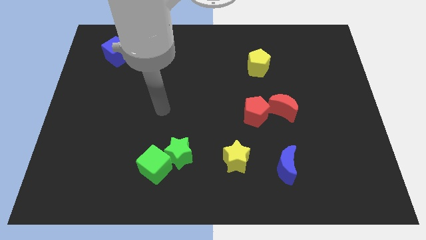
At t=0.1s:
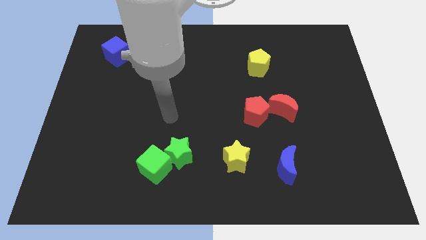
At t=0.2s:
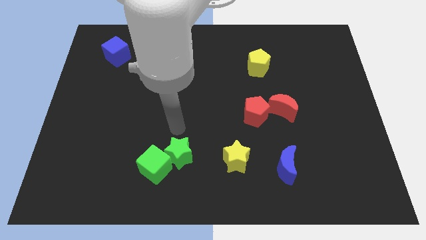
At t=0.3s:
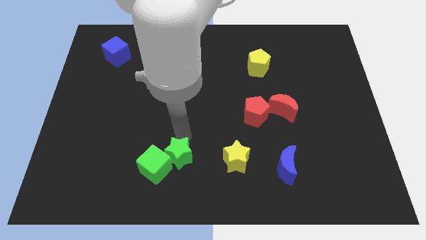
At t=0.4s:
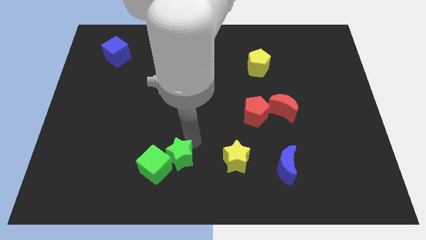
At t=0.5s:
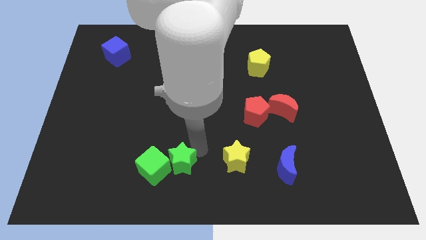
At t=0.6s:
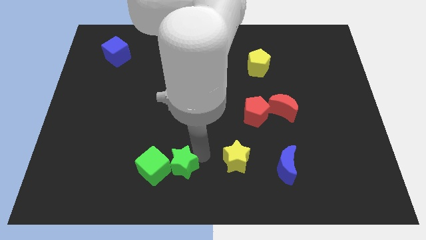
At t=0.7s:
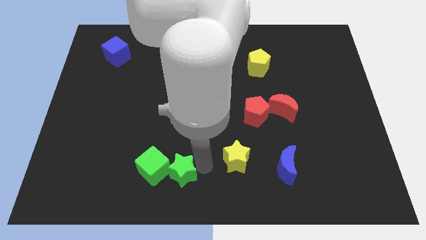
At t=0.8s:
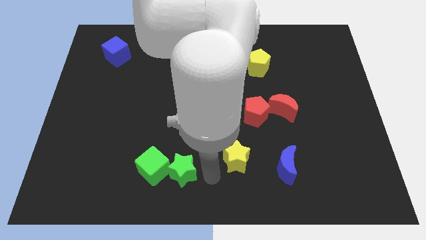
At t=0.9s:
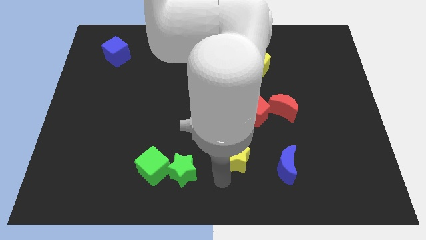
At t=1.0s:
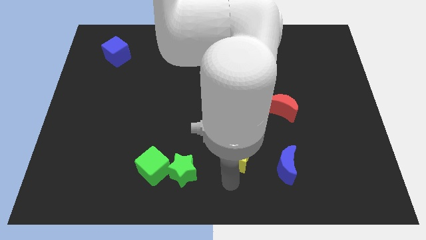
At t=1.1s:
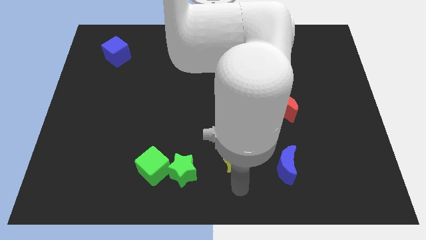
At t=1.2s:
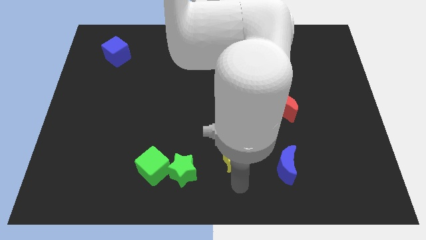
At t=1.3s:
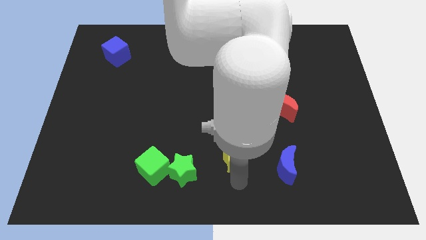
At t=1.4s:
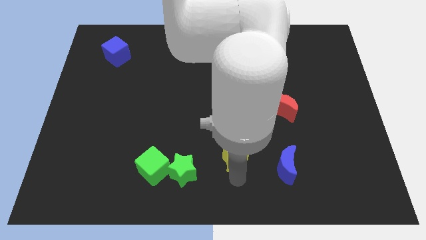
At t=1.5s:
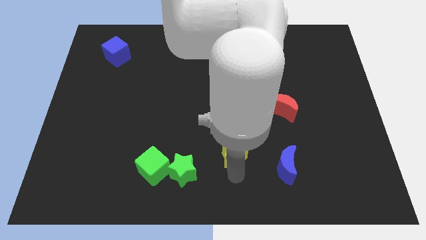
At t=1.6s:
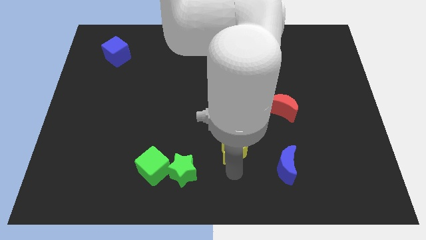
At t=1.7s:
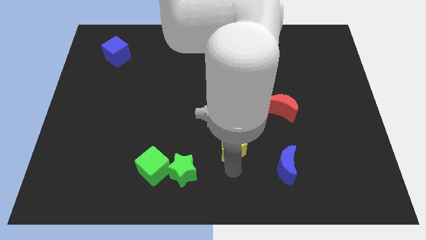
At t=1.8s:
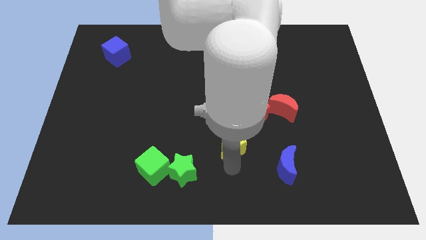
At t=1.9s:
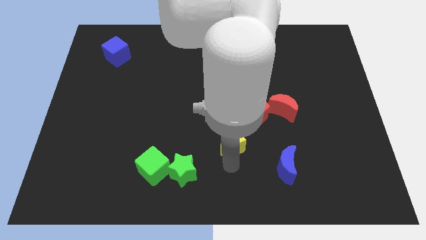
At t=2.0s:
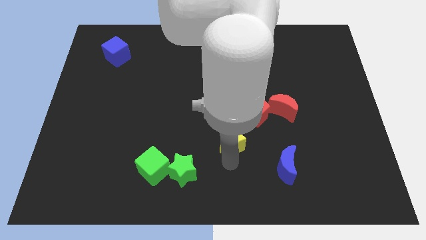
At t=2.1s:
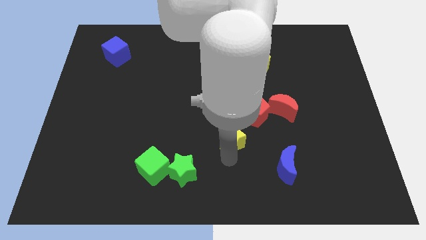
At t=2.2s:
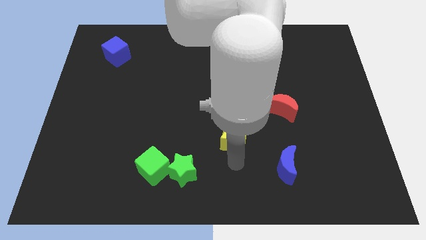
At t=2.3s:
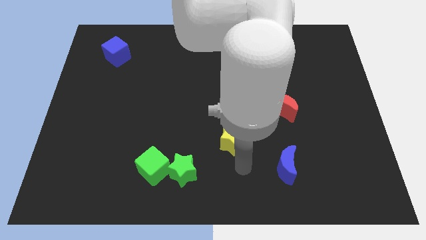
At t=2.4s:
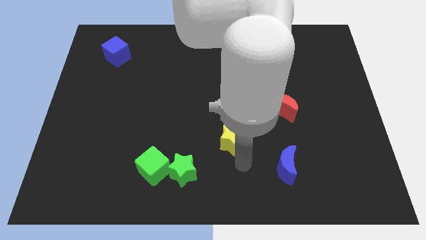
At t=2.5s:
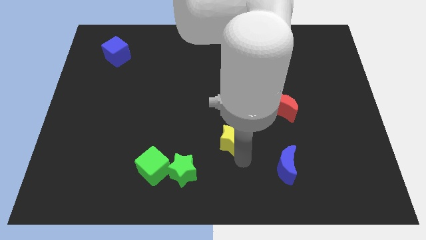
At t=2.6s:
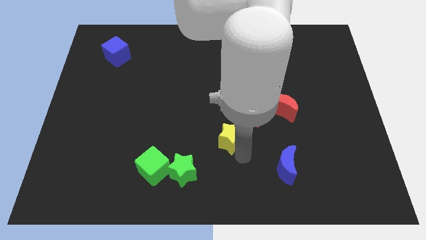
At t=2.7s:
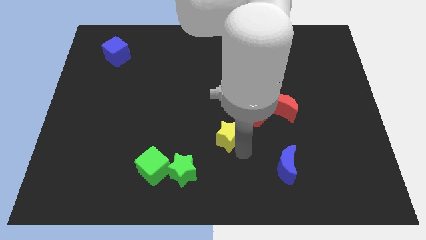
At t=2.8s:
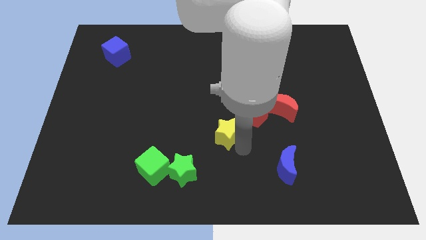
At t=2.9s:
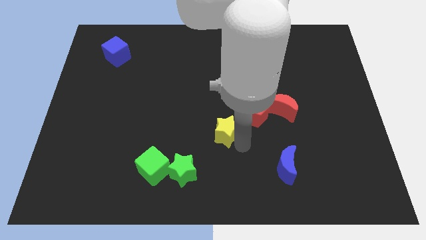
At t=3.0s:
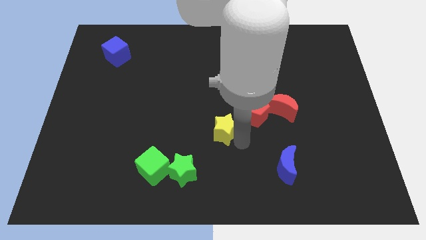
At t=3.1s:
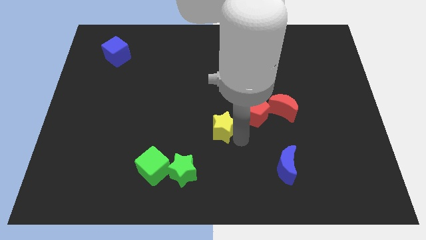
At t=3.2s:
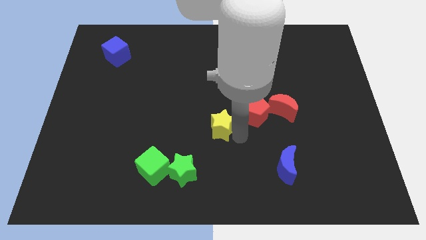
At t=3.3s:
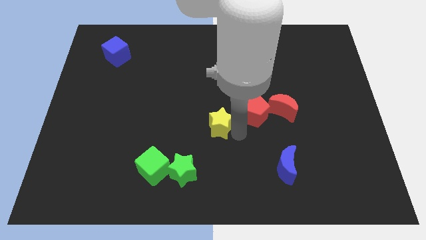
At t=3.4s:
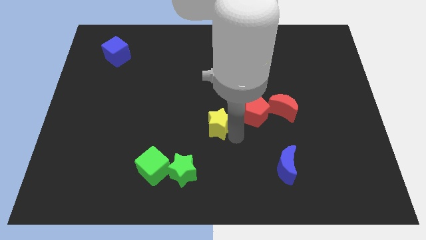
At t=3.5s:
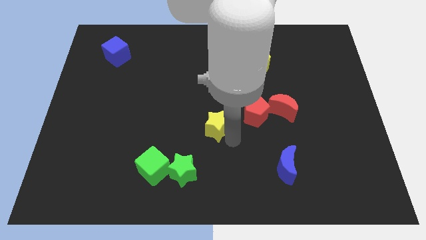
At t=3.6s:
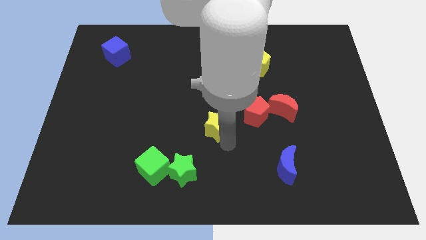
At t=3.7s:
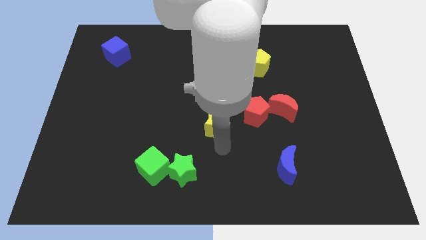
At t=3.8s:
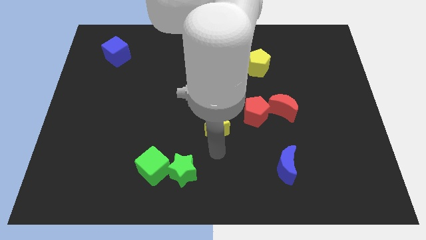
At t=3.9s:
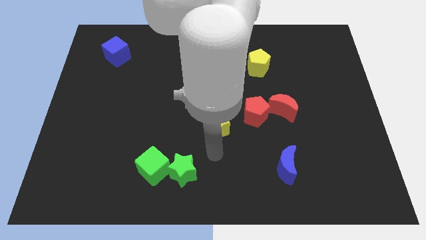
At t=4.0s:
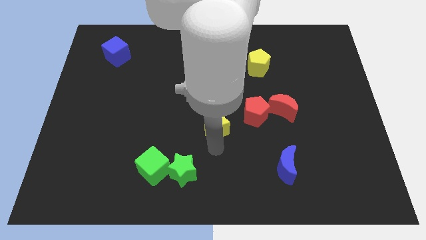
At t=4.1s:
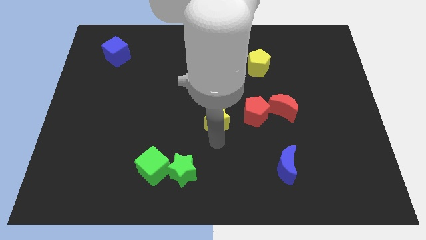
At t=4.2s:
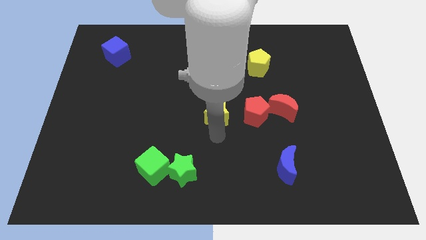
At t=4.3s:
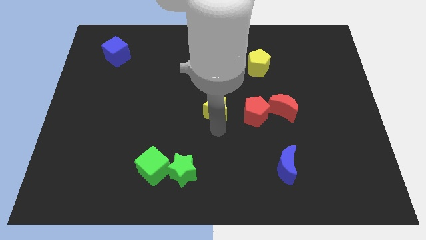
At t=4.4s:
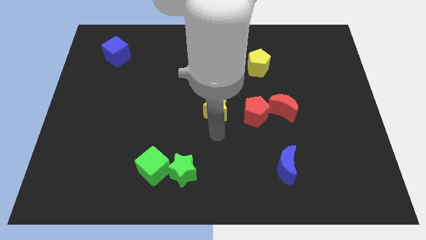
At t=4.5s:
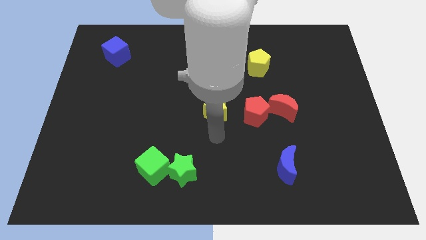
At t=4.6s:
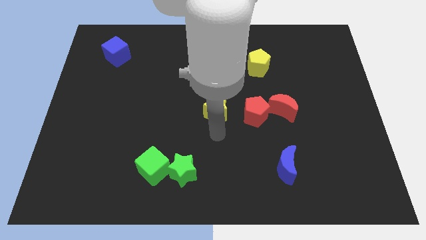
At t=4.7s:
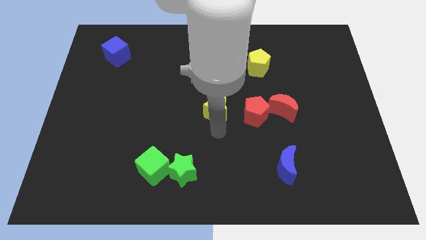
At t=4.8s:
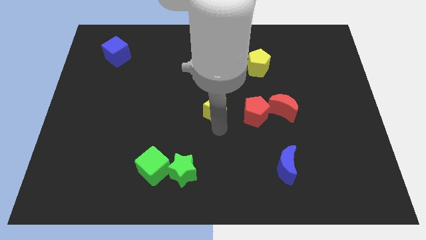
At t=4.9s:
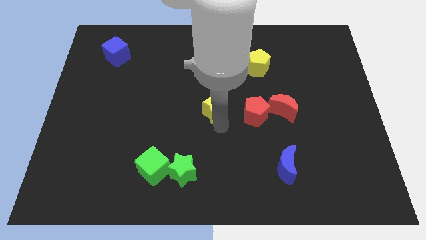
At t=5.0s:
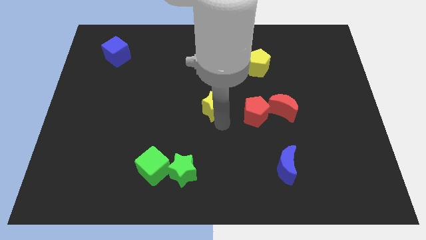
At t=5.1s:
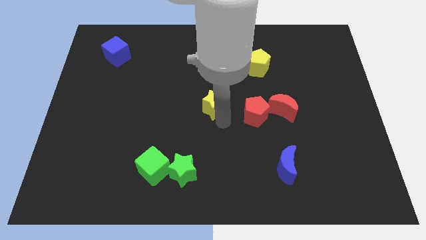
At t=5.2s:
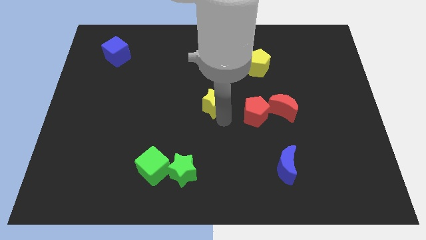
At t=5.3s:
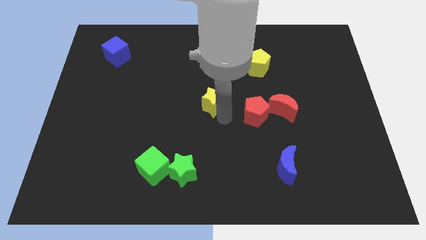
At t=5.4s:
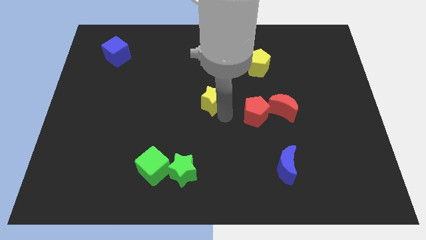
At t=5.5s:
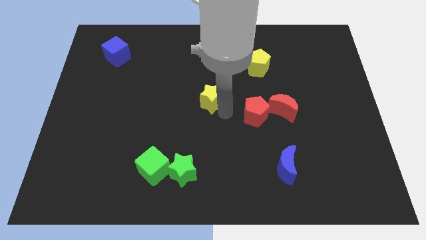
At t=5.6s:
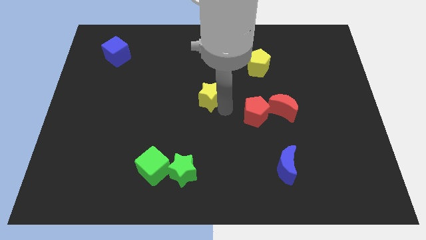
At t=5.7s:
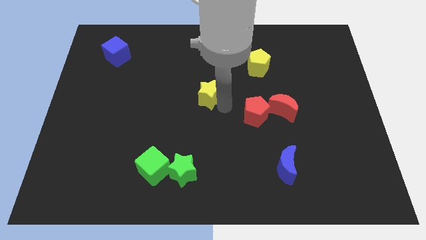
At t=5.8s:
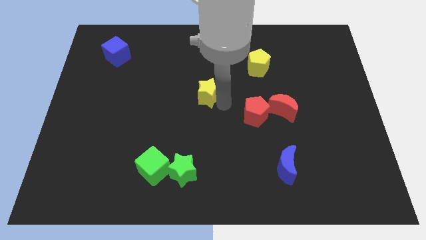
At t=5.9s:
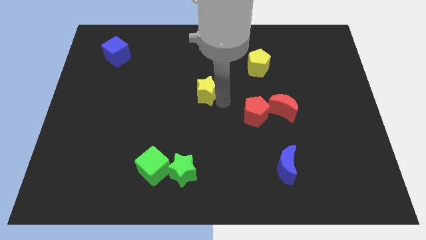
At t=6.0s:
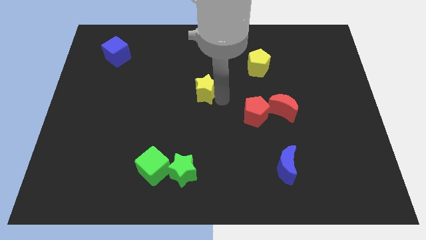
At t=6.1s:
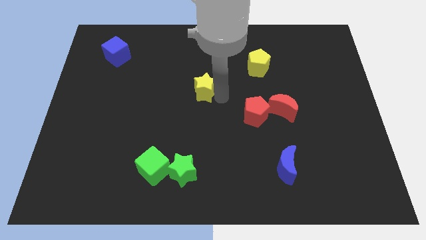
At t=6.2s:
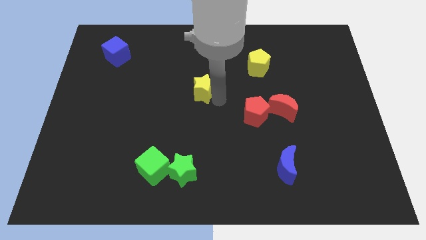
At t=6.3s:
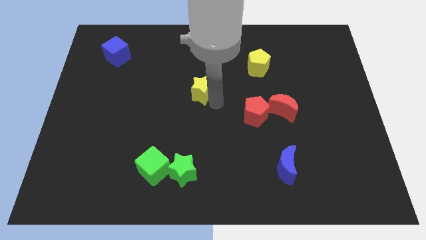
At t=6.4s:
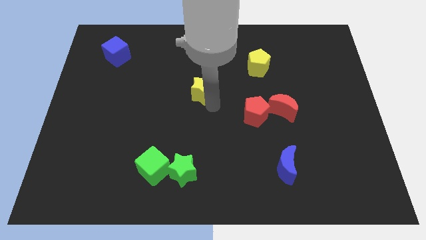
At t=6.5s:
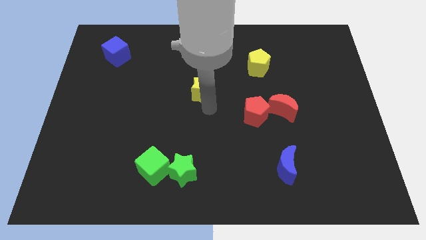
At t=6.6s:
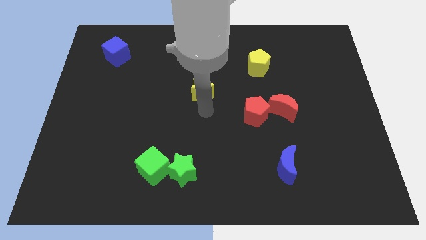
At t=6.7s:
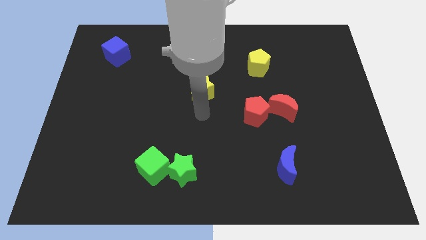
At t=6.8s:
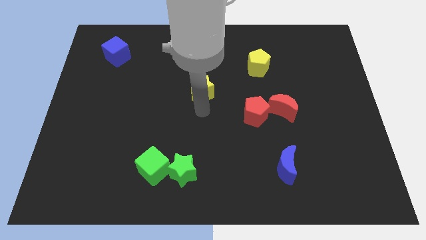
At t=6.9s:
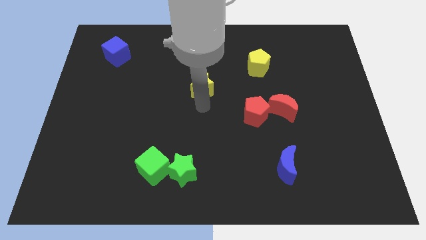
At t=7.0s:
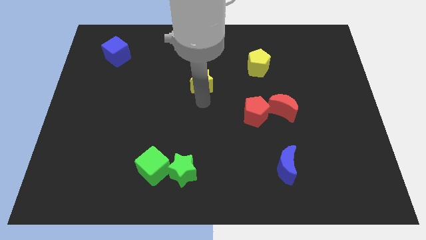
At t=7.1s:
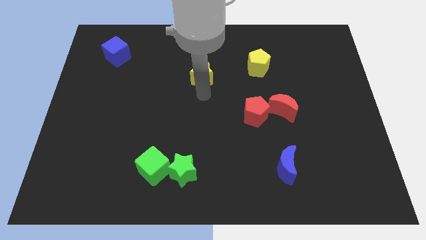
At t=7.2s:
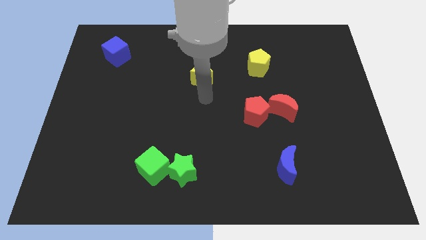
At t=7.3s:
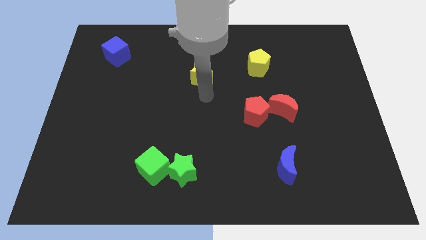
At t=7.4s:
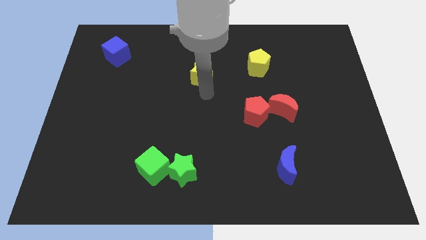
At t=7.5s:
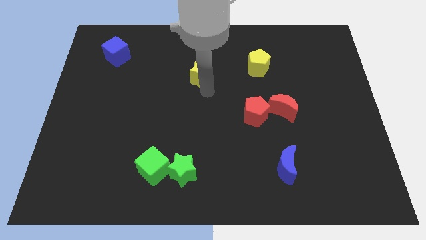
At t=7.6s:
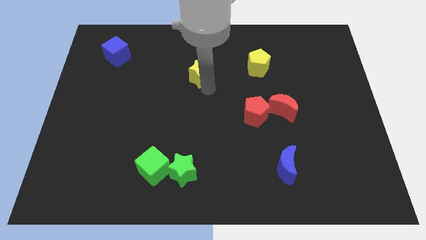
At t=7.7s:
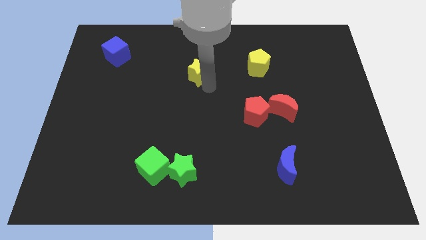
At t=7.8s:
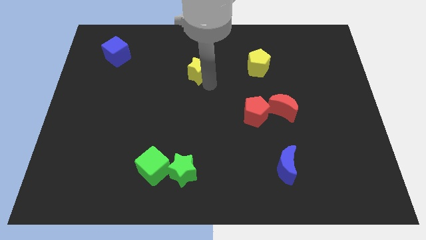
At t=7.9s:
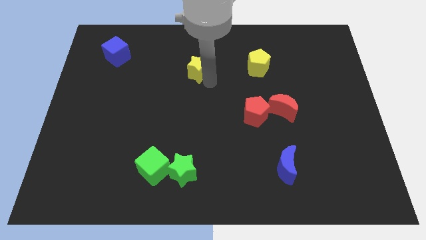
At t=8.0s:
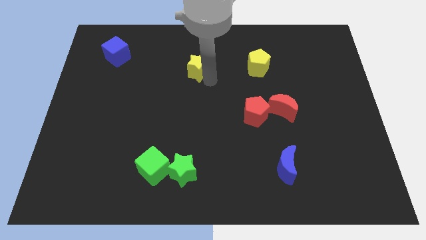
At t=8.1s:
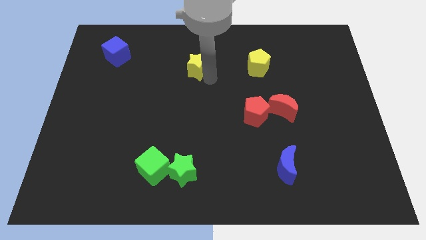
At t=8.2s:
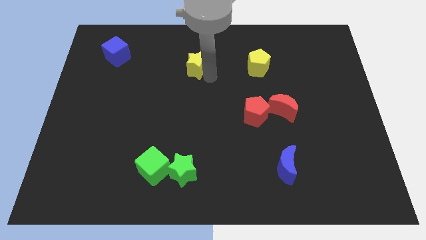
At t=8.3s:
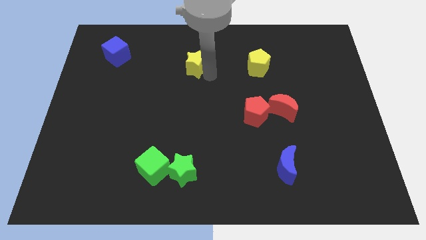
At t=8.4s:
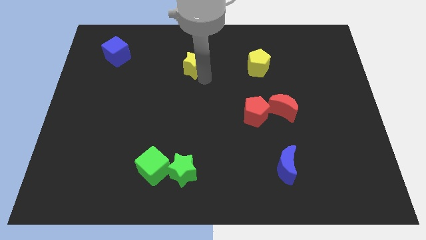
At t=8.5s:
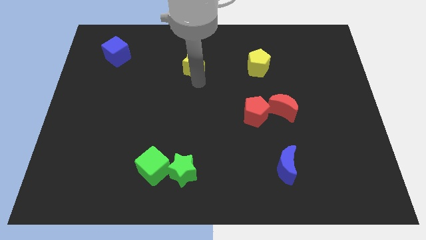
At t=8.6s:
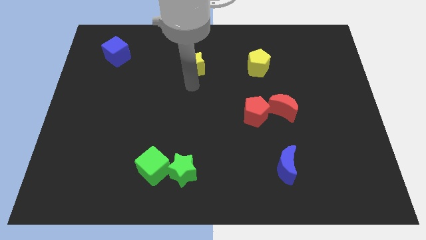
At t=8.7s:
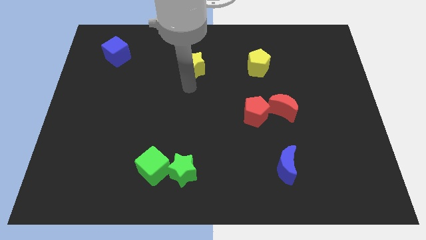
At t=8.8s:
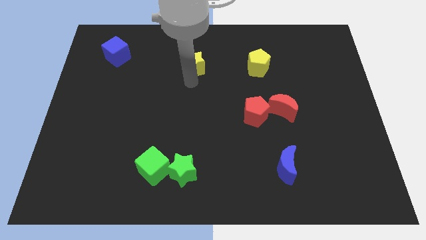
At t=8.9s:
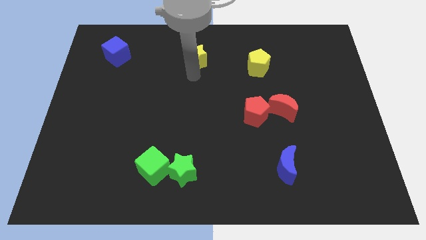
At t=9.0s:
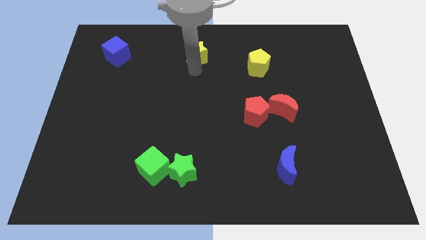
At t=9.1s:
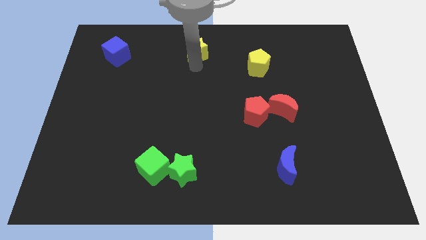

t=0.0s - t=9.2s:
push the yellow star to the top side
